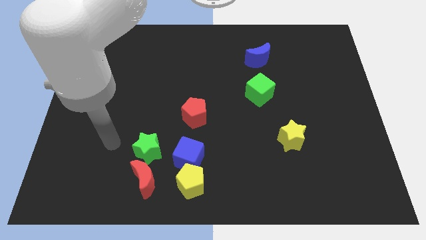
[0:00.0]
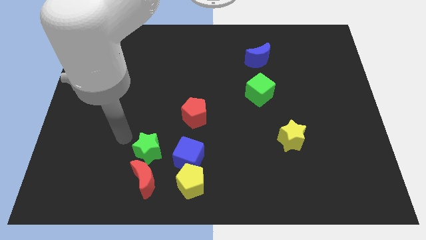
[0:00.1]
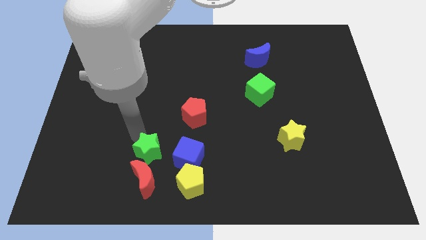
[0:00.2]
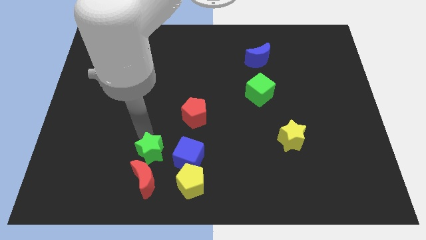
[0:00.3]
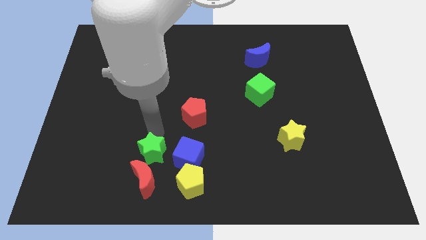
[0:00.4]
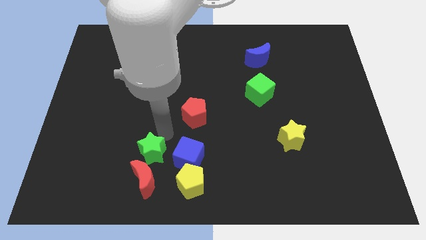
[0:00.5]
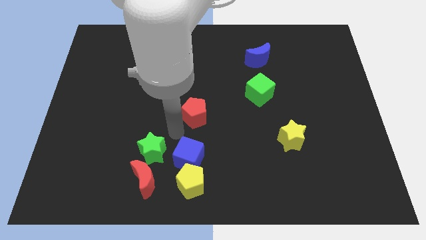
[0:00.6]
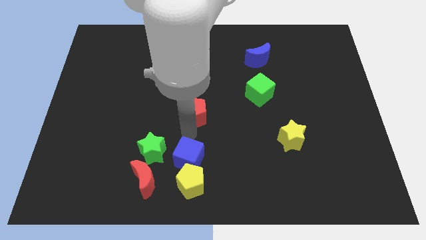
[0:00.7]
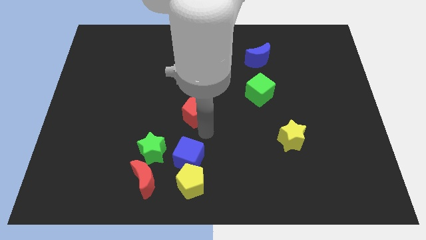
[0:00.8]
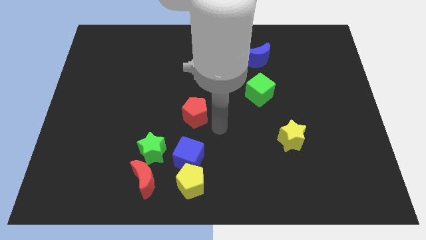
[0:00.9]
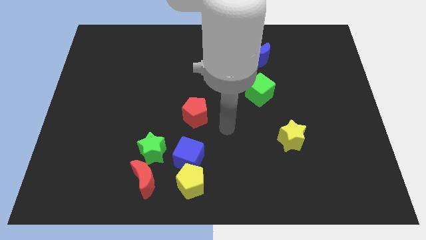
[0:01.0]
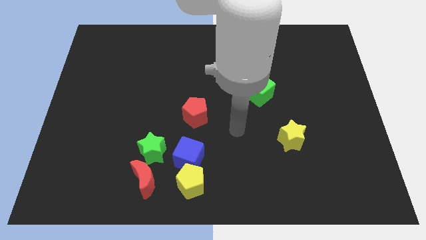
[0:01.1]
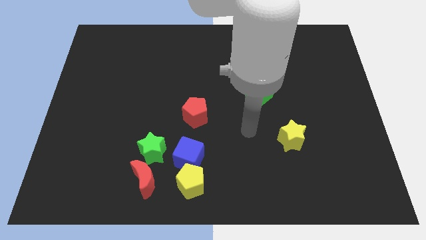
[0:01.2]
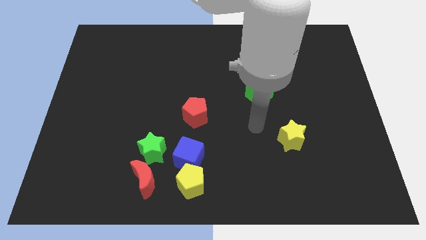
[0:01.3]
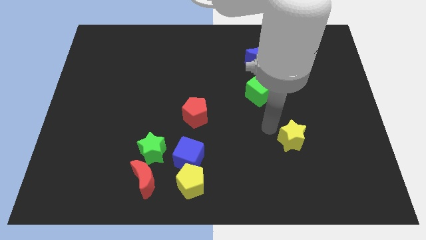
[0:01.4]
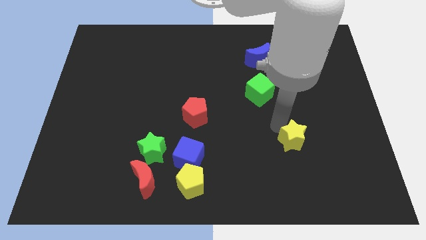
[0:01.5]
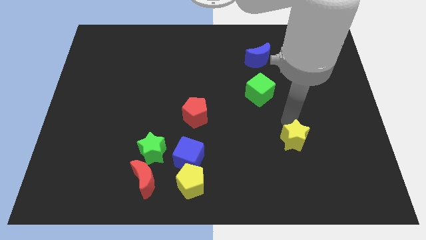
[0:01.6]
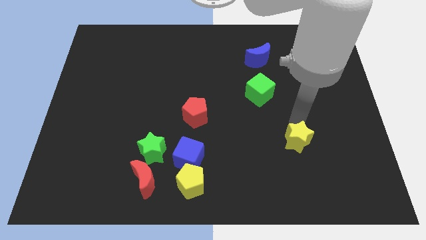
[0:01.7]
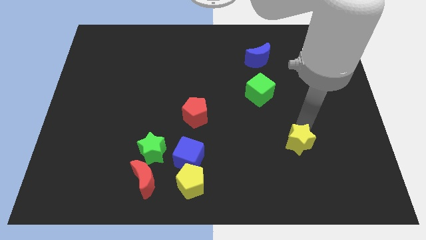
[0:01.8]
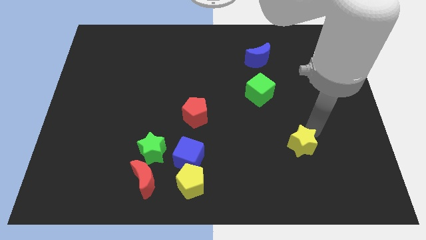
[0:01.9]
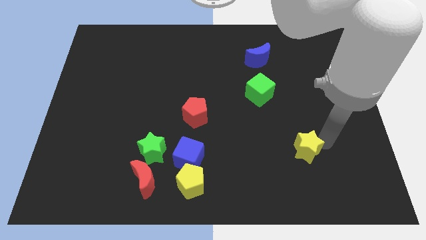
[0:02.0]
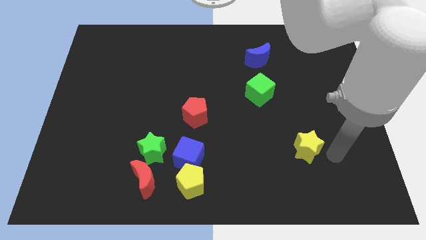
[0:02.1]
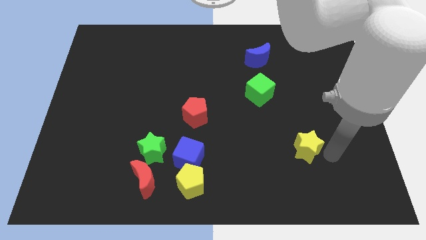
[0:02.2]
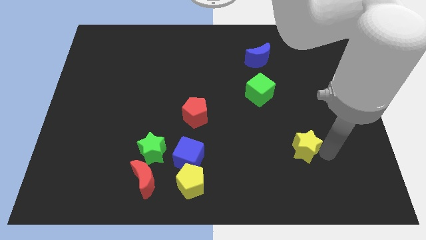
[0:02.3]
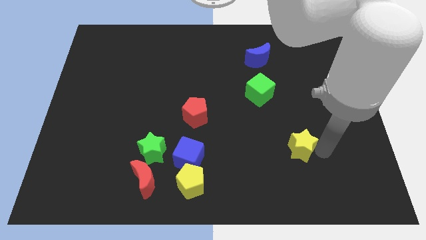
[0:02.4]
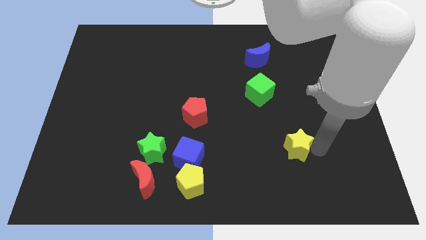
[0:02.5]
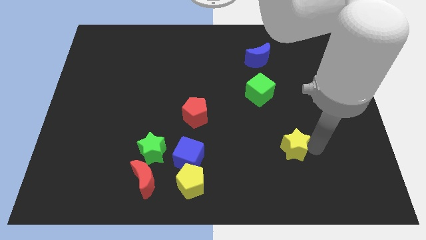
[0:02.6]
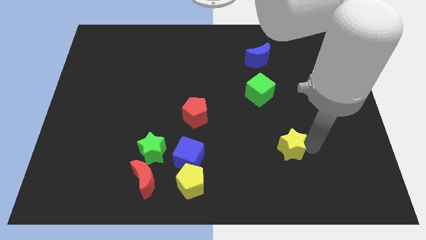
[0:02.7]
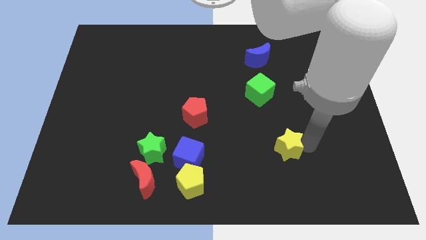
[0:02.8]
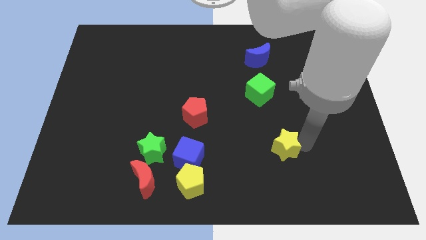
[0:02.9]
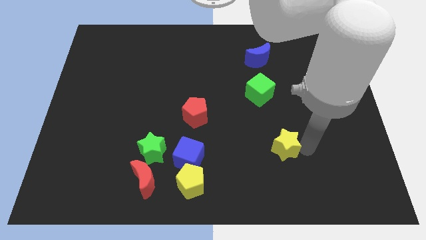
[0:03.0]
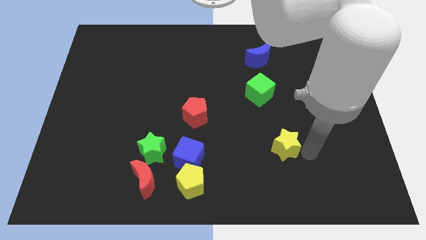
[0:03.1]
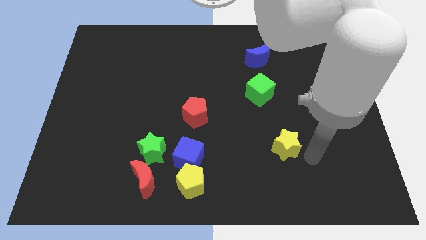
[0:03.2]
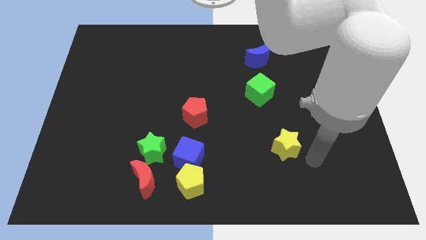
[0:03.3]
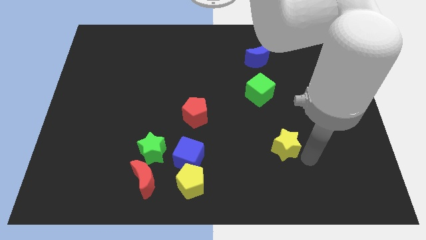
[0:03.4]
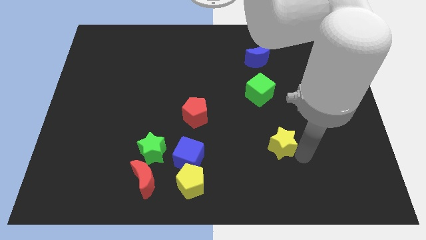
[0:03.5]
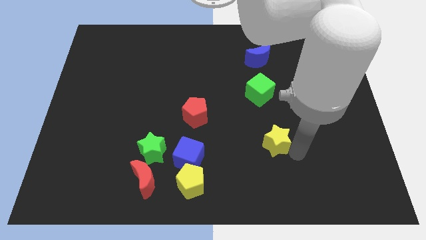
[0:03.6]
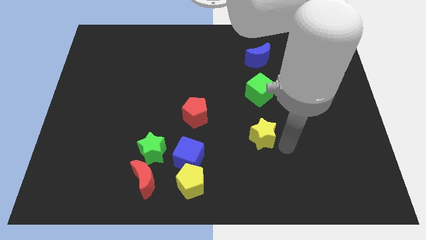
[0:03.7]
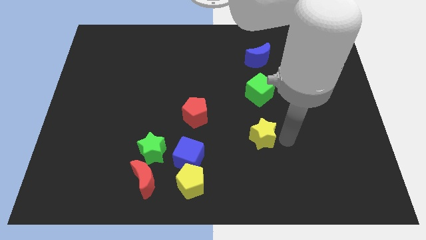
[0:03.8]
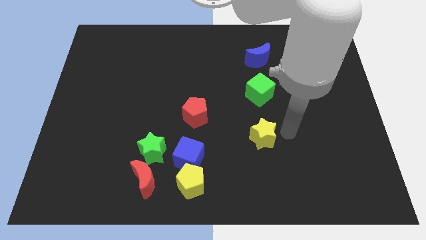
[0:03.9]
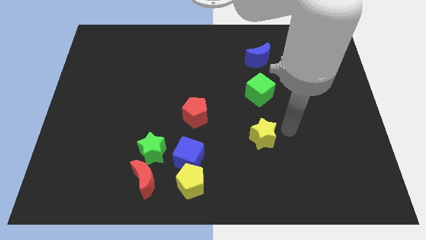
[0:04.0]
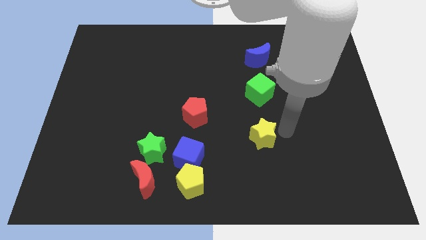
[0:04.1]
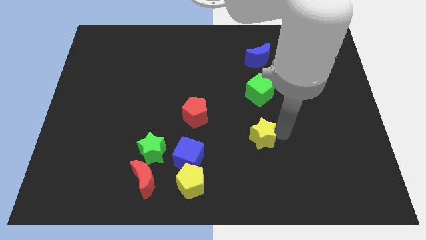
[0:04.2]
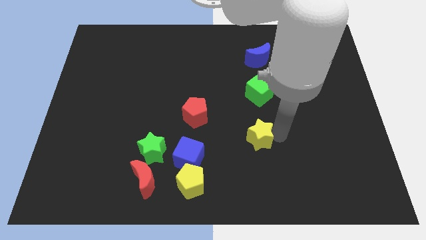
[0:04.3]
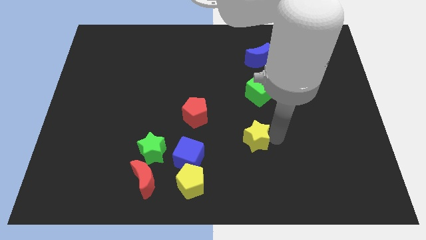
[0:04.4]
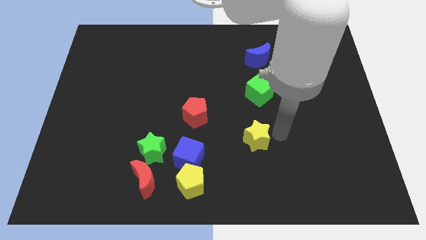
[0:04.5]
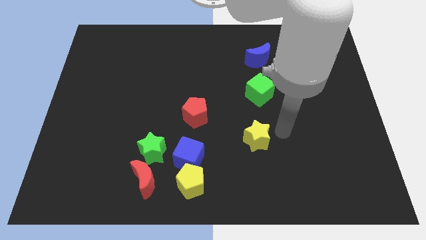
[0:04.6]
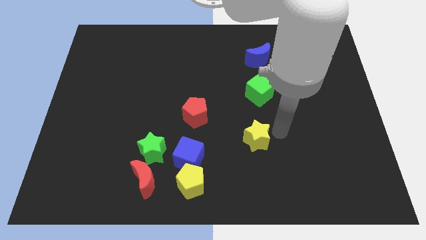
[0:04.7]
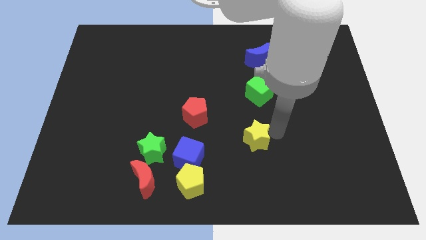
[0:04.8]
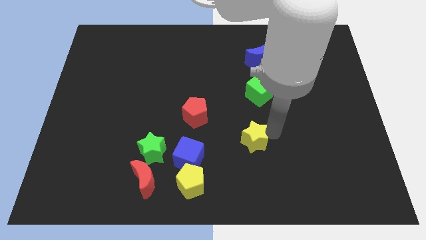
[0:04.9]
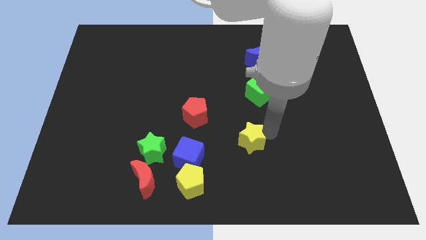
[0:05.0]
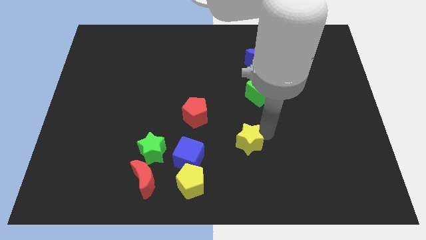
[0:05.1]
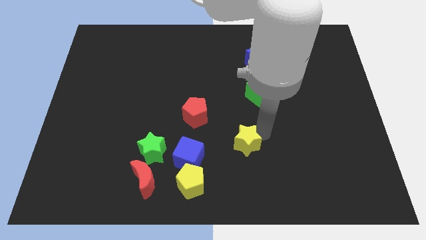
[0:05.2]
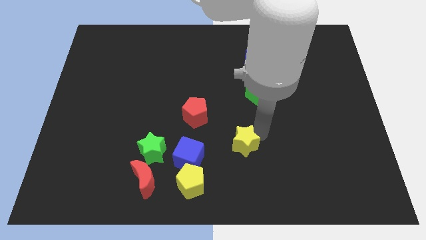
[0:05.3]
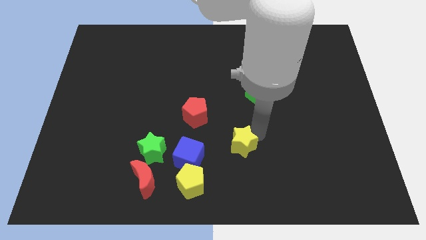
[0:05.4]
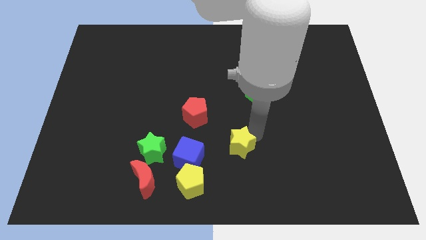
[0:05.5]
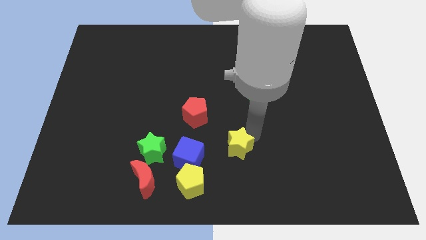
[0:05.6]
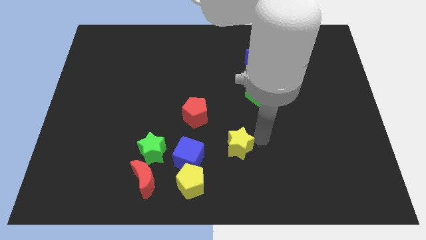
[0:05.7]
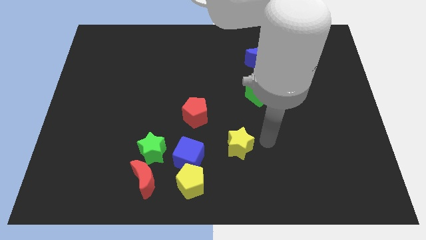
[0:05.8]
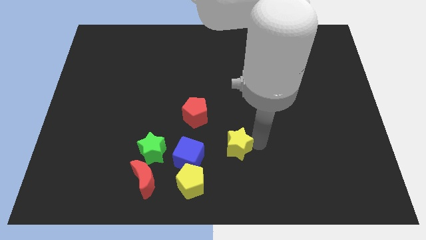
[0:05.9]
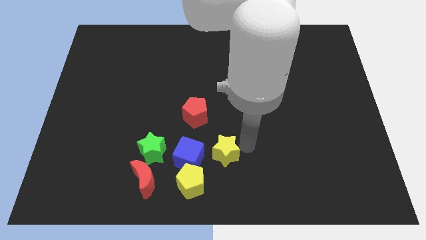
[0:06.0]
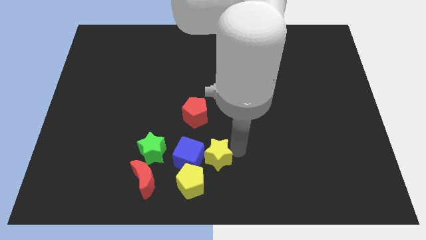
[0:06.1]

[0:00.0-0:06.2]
put the yellow star close to the blue cube

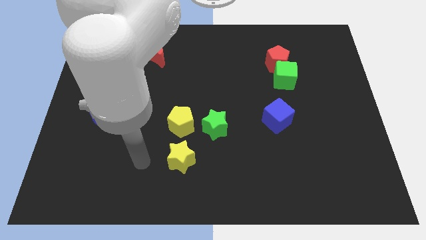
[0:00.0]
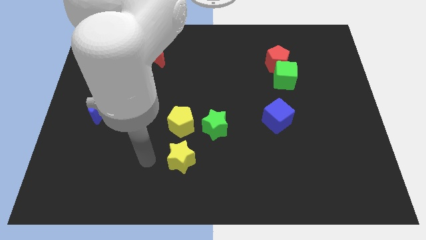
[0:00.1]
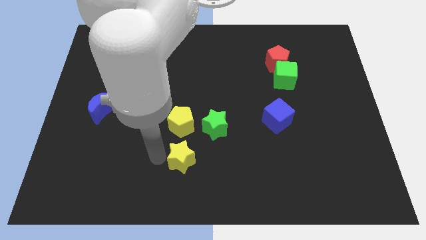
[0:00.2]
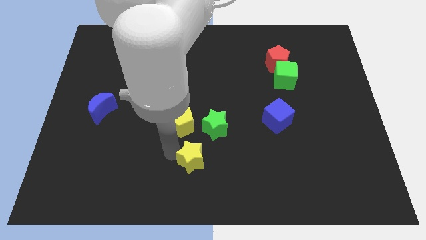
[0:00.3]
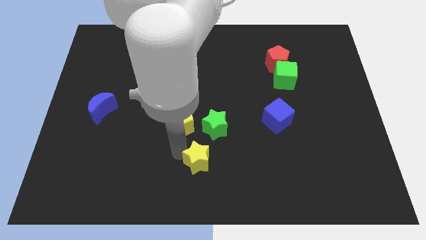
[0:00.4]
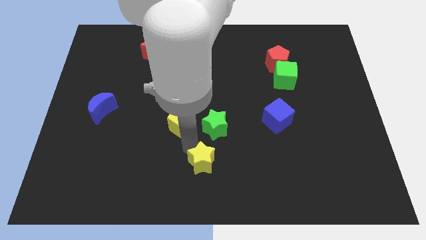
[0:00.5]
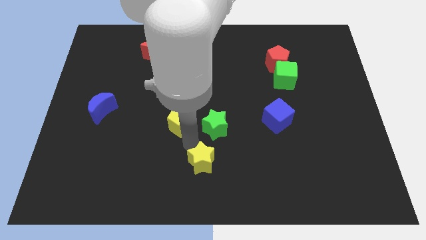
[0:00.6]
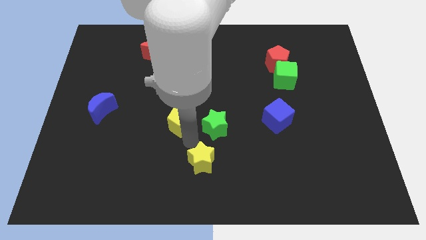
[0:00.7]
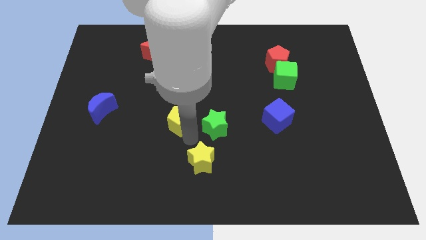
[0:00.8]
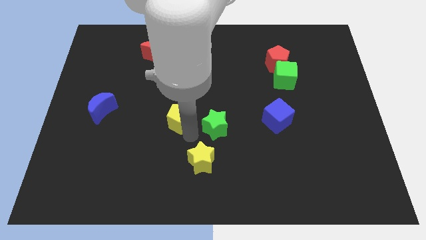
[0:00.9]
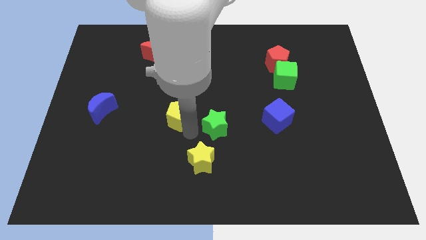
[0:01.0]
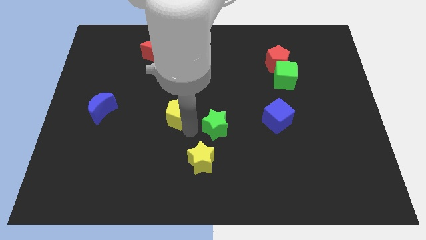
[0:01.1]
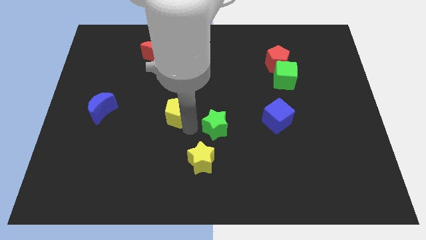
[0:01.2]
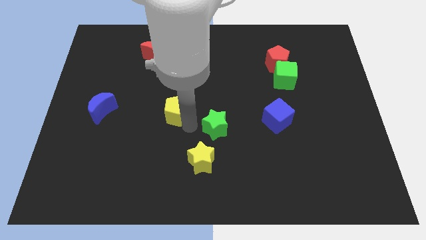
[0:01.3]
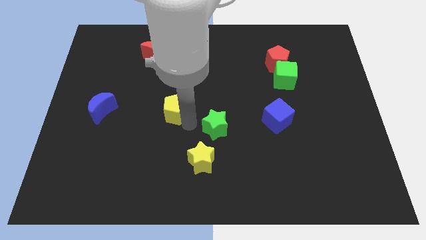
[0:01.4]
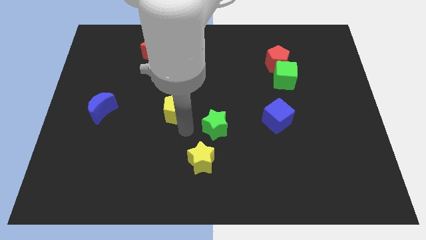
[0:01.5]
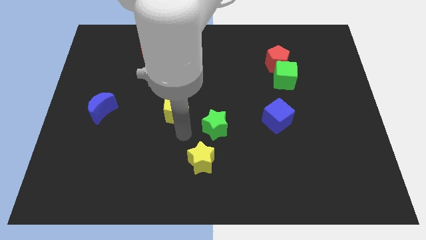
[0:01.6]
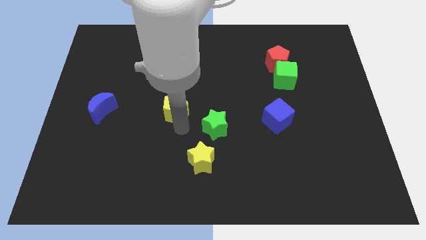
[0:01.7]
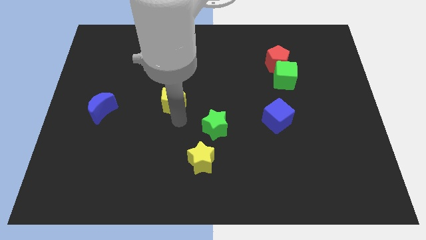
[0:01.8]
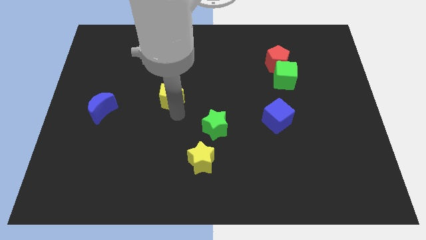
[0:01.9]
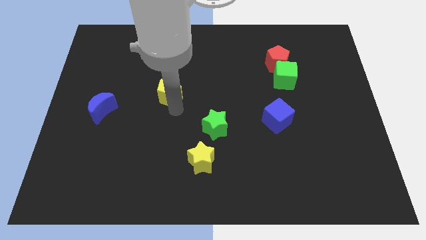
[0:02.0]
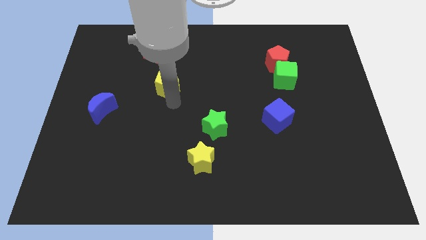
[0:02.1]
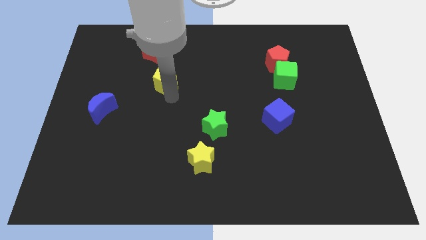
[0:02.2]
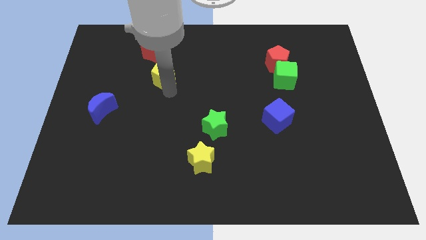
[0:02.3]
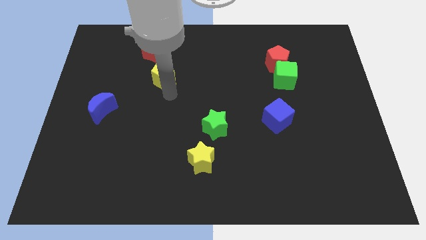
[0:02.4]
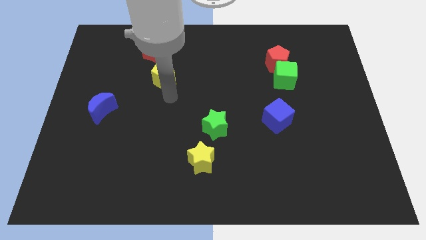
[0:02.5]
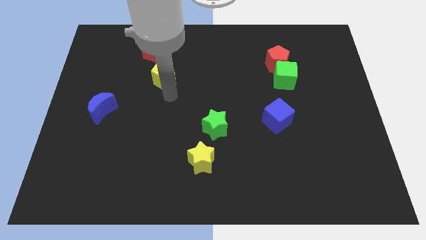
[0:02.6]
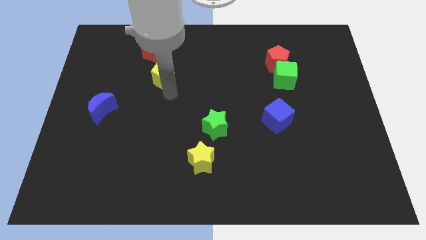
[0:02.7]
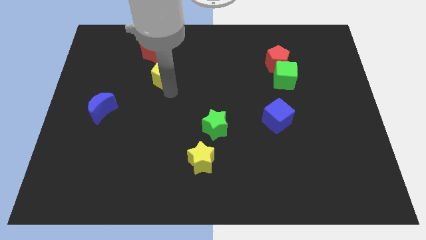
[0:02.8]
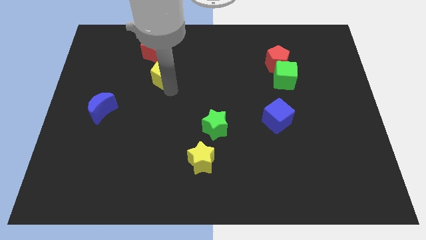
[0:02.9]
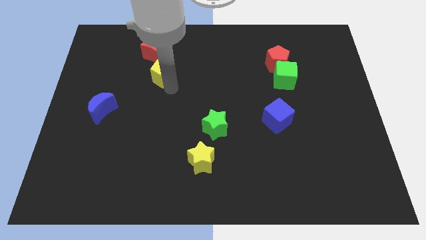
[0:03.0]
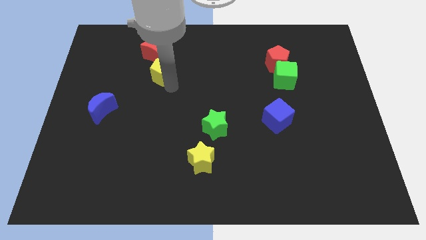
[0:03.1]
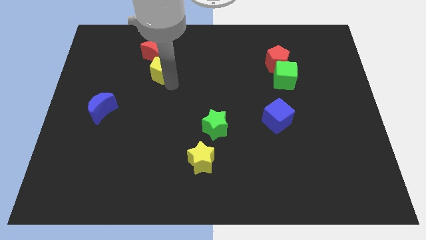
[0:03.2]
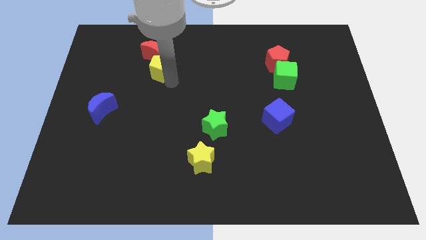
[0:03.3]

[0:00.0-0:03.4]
push the yellow pentagon next to the red moon
